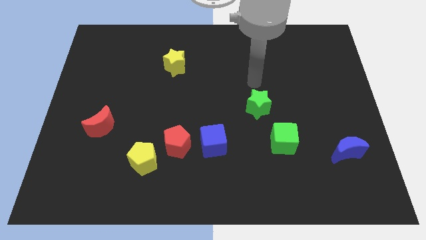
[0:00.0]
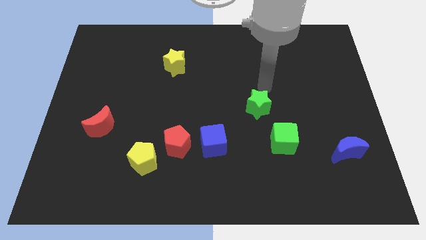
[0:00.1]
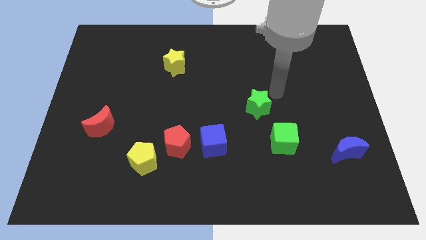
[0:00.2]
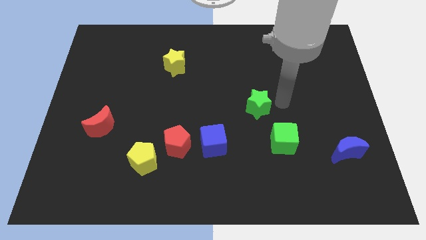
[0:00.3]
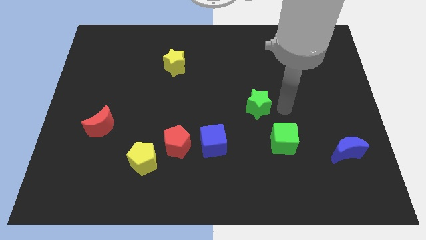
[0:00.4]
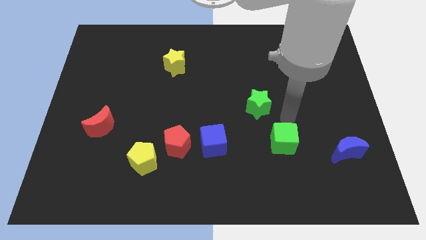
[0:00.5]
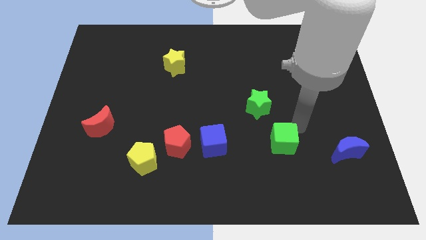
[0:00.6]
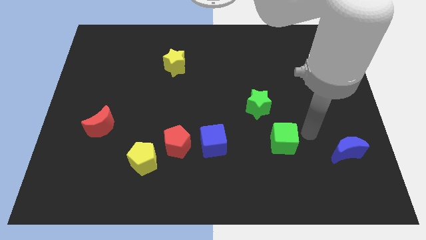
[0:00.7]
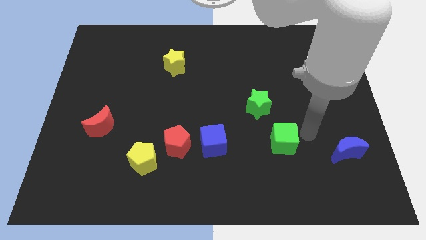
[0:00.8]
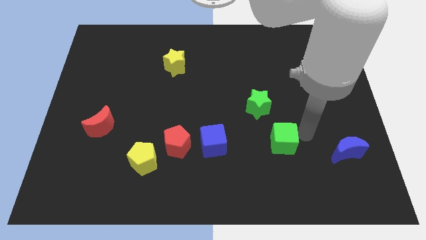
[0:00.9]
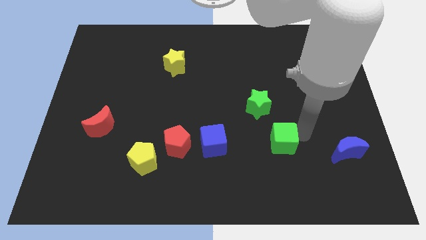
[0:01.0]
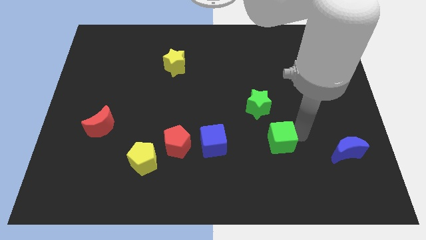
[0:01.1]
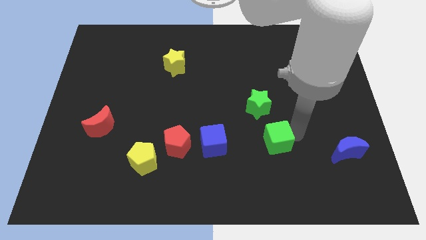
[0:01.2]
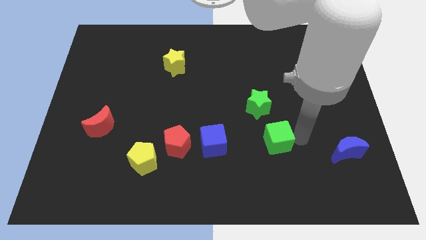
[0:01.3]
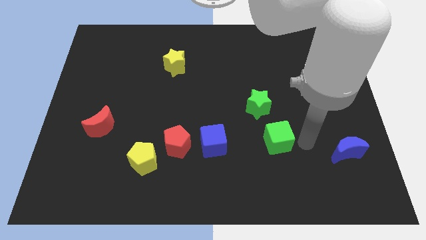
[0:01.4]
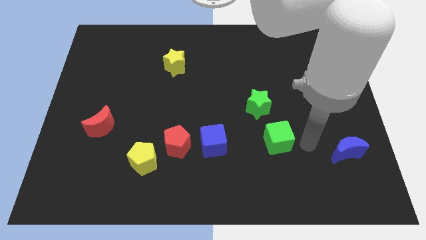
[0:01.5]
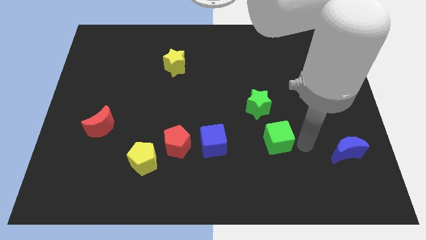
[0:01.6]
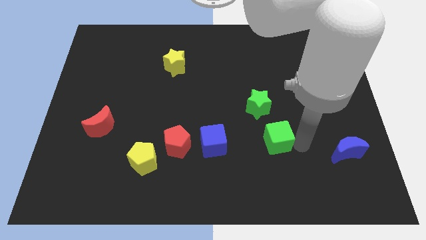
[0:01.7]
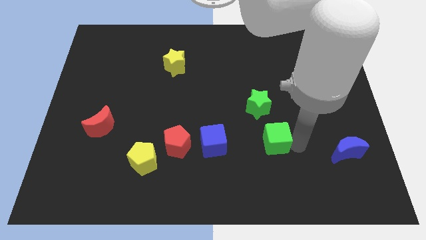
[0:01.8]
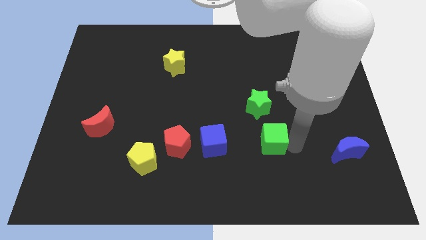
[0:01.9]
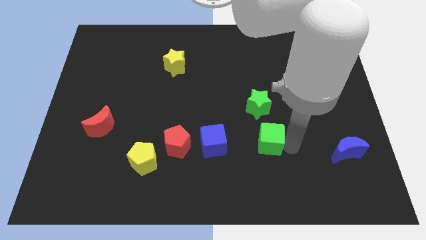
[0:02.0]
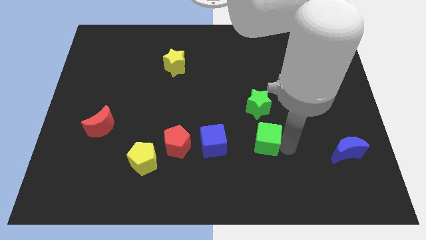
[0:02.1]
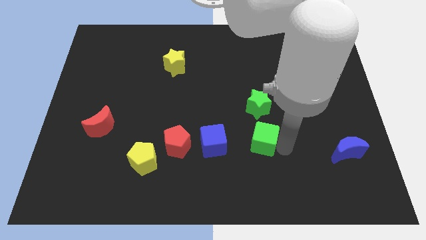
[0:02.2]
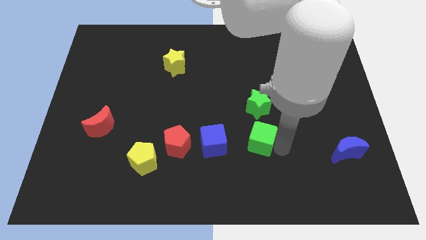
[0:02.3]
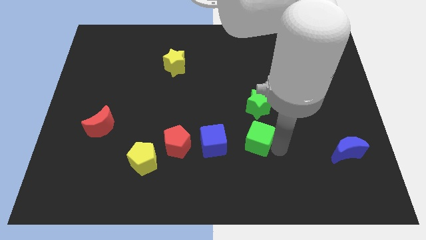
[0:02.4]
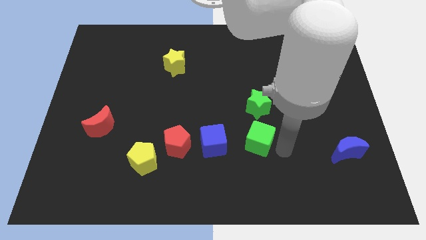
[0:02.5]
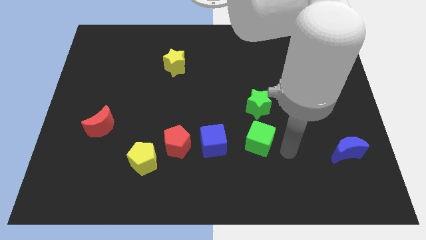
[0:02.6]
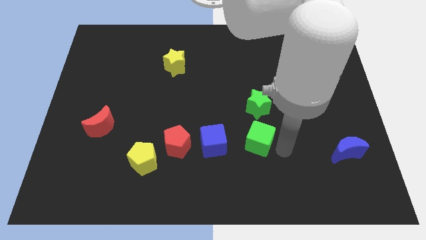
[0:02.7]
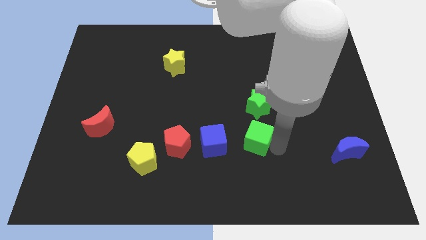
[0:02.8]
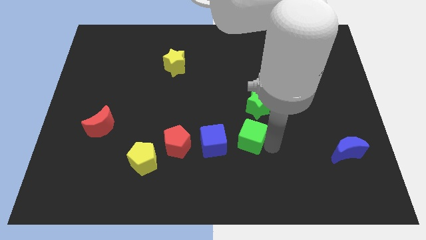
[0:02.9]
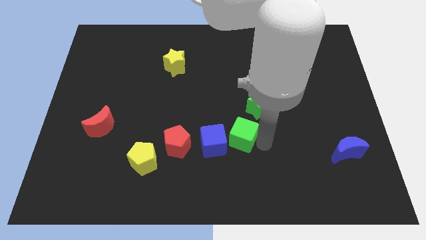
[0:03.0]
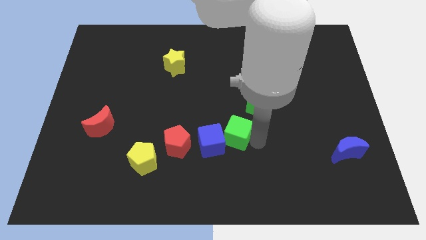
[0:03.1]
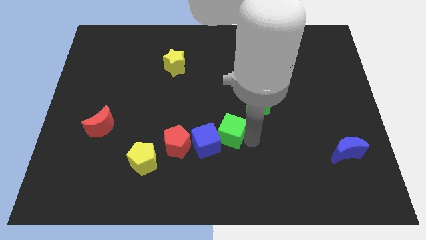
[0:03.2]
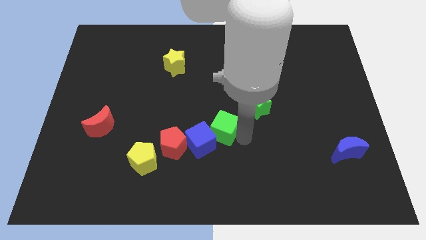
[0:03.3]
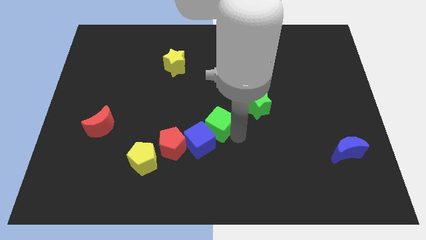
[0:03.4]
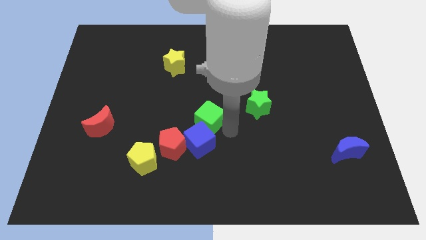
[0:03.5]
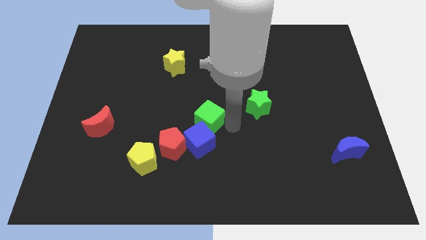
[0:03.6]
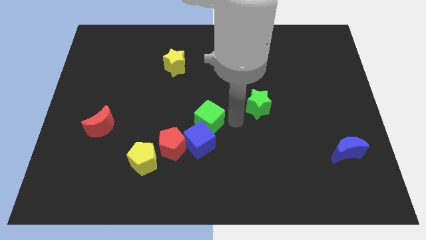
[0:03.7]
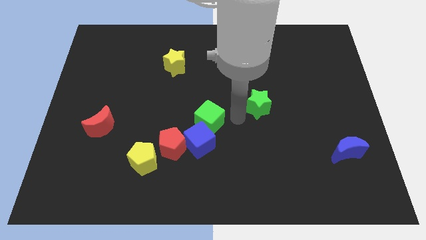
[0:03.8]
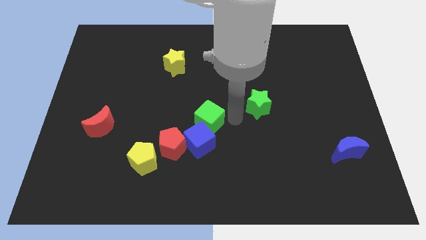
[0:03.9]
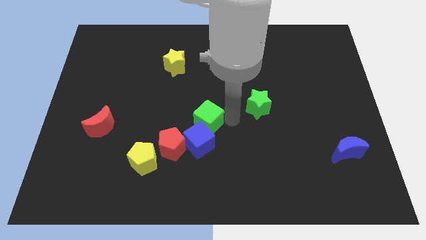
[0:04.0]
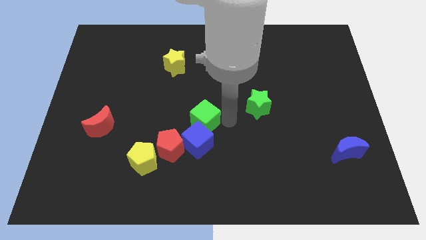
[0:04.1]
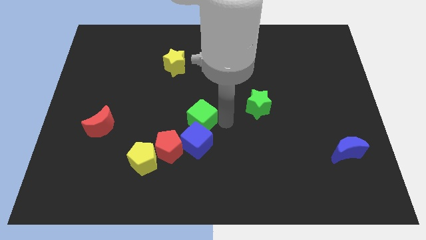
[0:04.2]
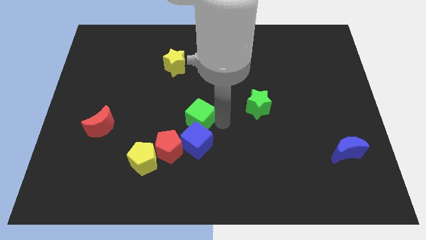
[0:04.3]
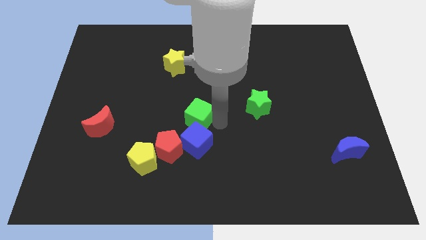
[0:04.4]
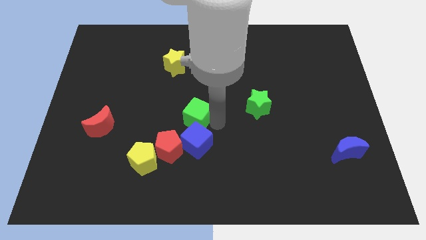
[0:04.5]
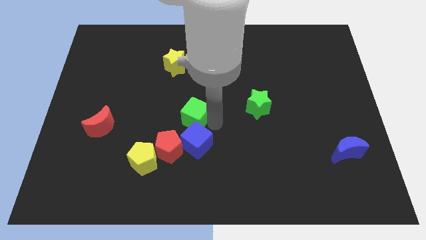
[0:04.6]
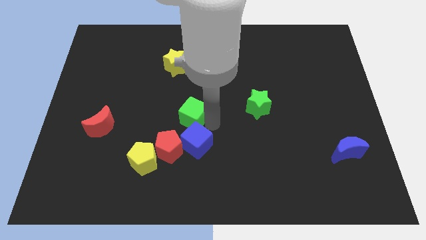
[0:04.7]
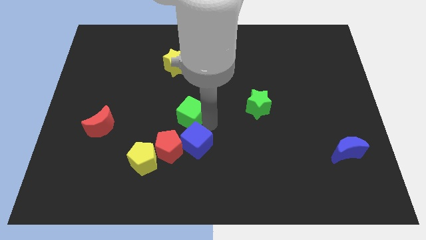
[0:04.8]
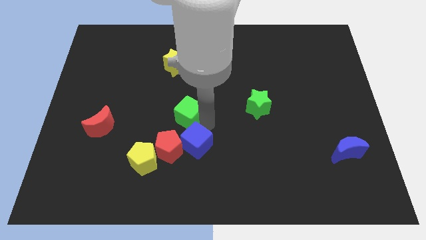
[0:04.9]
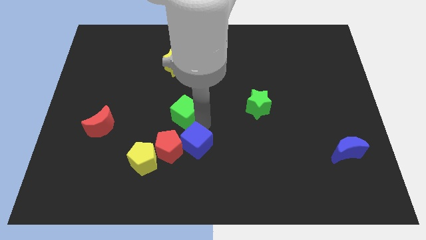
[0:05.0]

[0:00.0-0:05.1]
move the green cube to the left

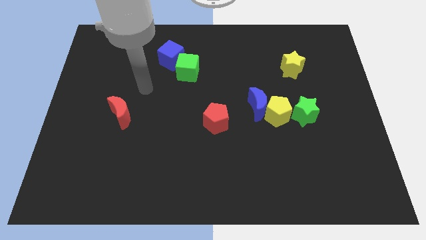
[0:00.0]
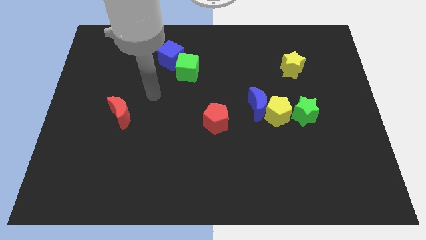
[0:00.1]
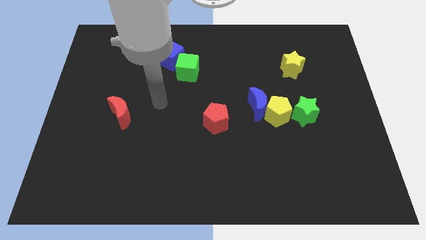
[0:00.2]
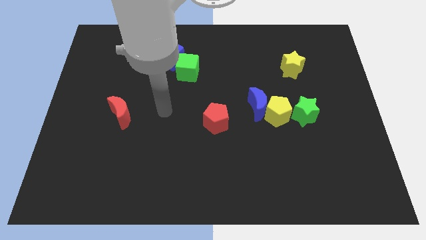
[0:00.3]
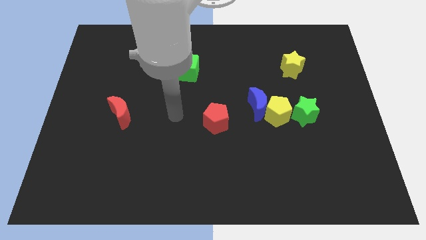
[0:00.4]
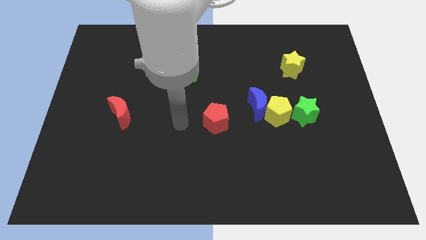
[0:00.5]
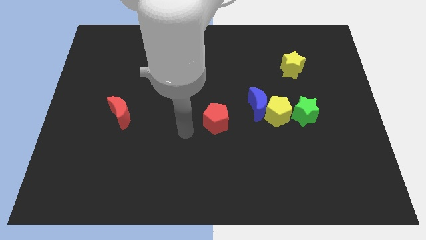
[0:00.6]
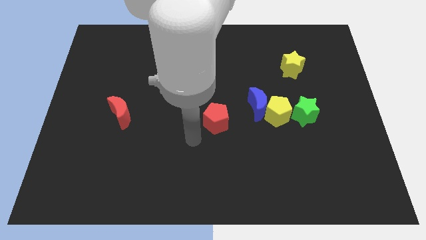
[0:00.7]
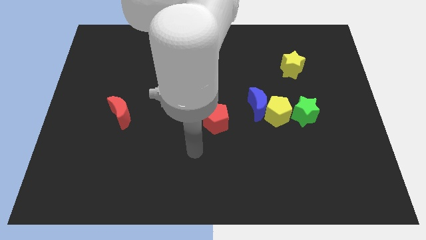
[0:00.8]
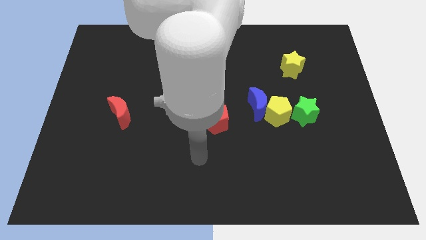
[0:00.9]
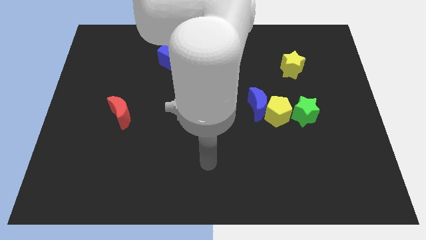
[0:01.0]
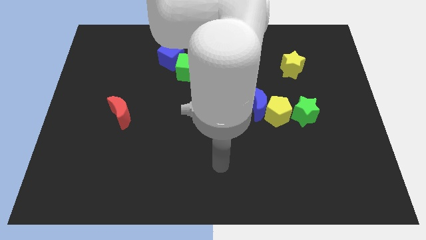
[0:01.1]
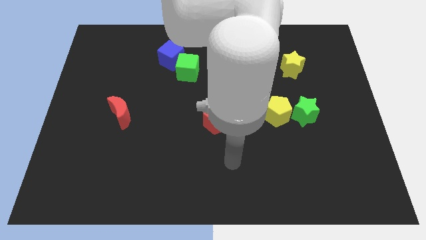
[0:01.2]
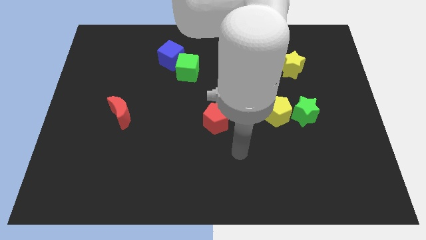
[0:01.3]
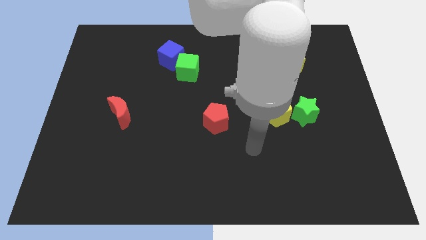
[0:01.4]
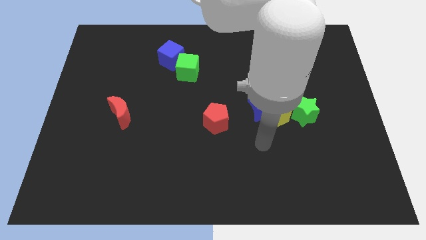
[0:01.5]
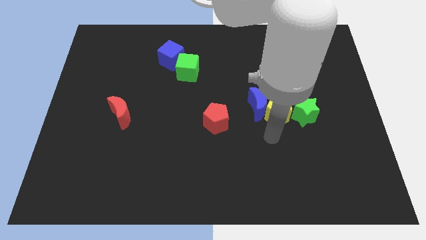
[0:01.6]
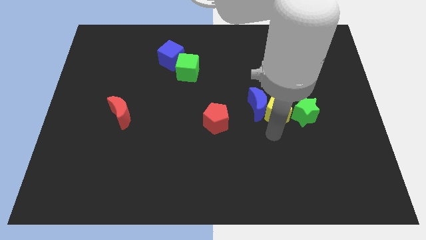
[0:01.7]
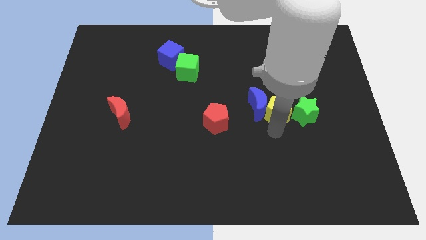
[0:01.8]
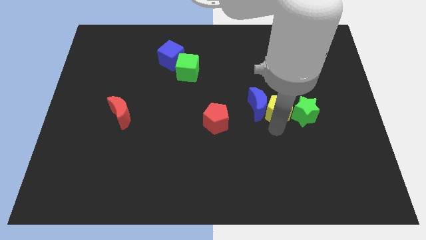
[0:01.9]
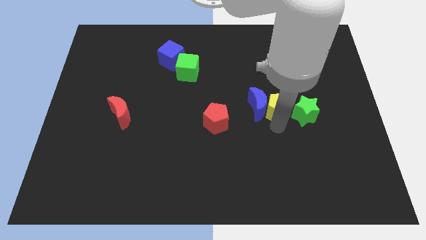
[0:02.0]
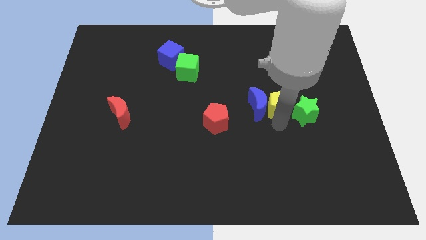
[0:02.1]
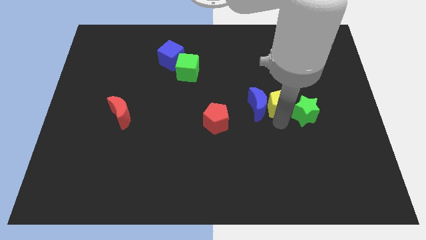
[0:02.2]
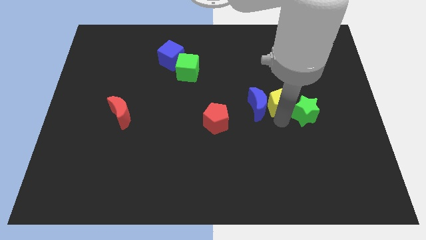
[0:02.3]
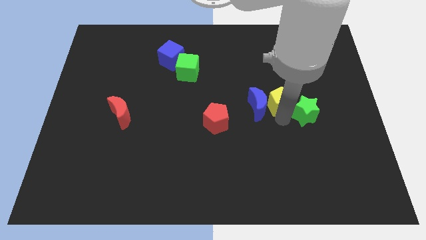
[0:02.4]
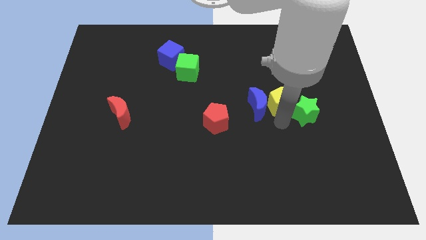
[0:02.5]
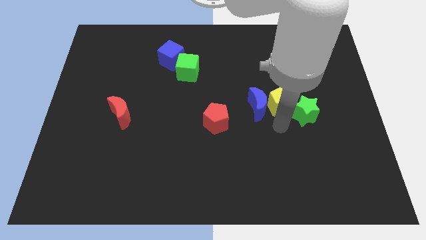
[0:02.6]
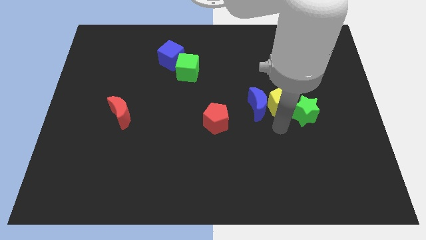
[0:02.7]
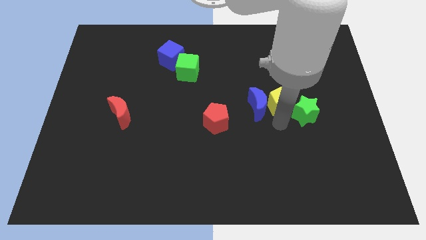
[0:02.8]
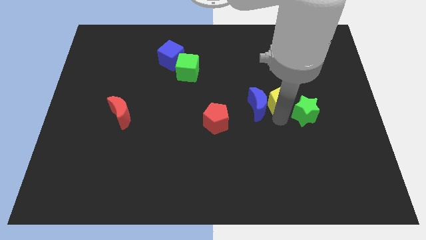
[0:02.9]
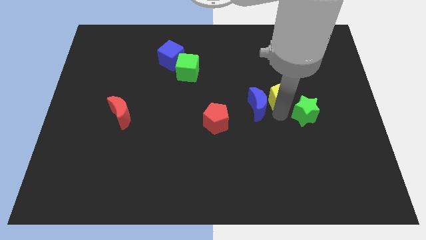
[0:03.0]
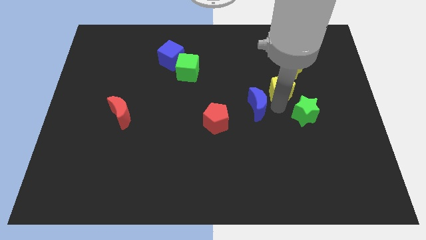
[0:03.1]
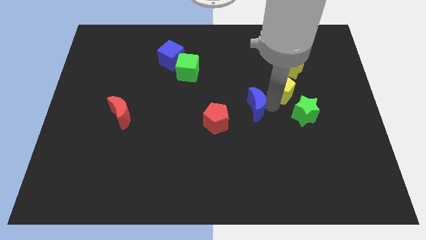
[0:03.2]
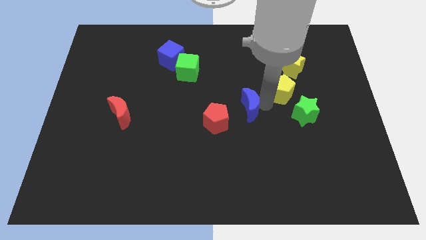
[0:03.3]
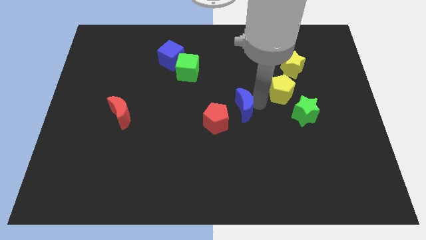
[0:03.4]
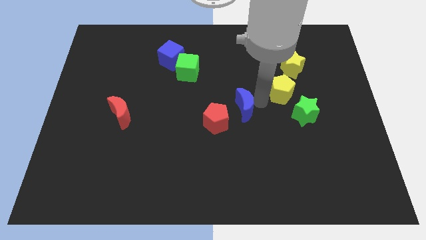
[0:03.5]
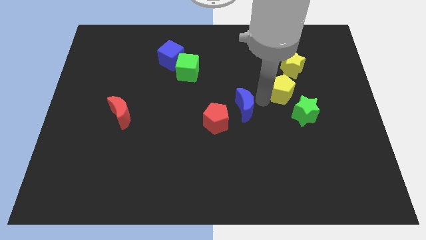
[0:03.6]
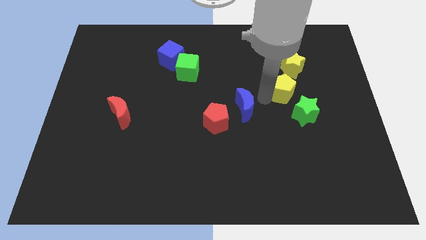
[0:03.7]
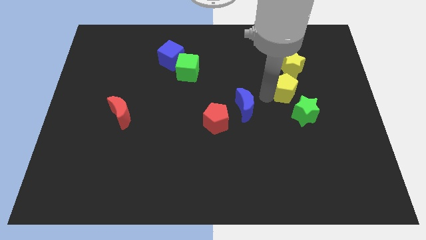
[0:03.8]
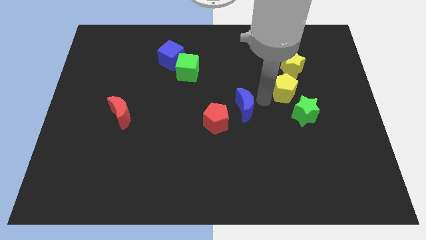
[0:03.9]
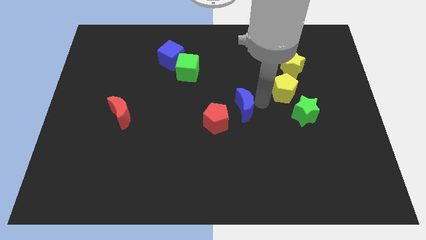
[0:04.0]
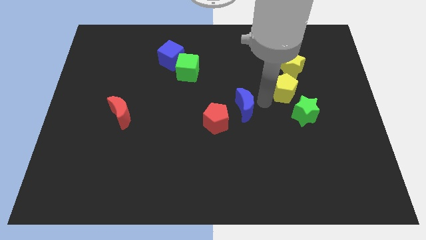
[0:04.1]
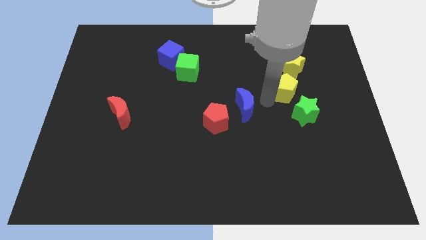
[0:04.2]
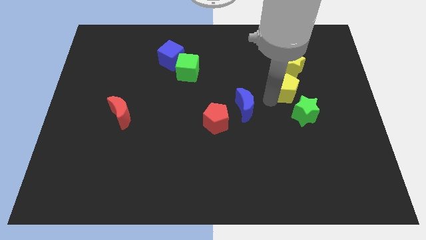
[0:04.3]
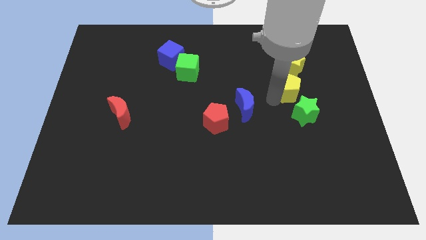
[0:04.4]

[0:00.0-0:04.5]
slightly push the yellow pentagon up and to the right
